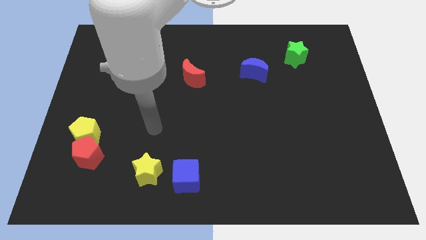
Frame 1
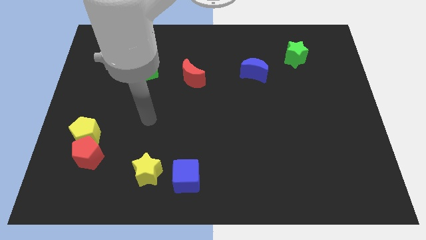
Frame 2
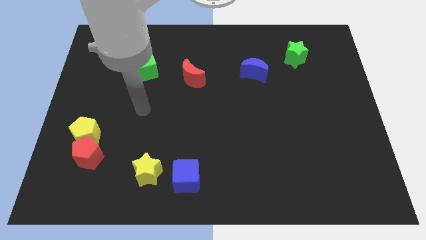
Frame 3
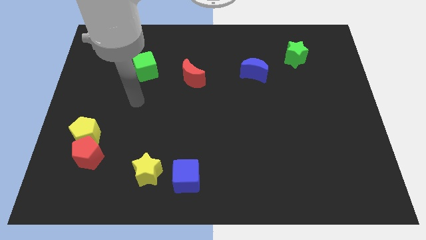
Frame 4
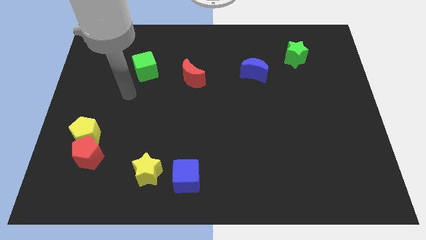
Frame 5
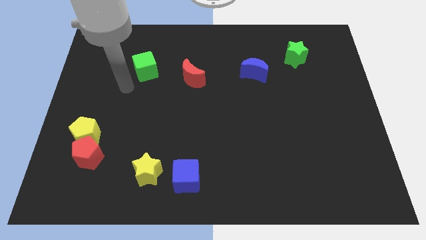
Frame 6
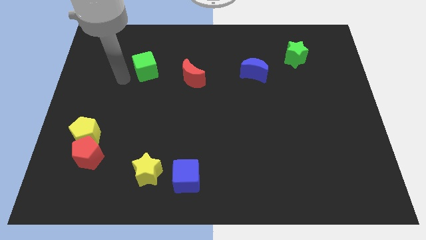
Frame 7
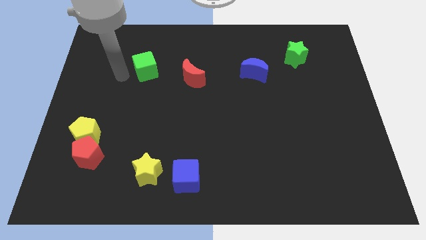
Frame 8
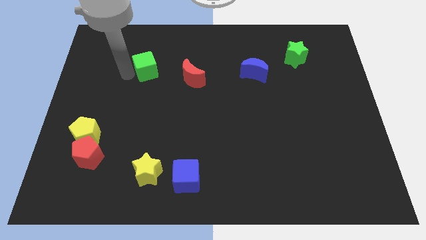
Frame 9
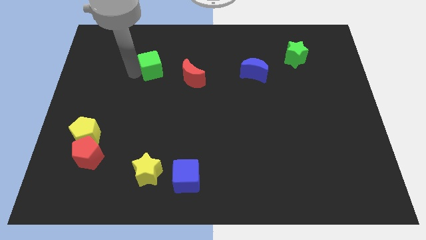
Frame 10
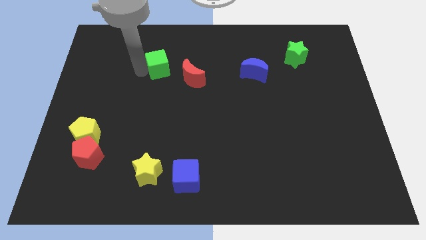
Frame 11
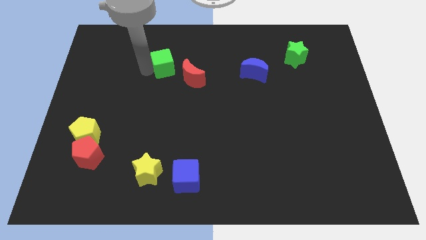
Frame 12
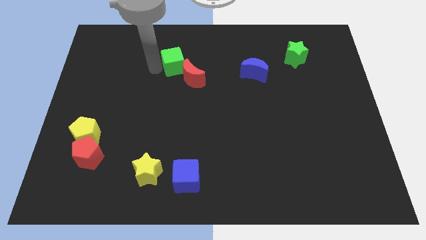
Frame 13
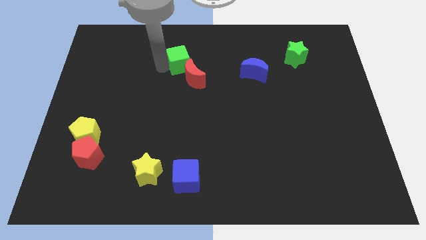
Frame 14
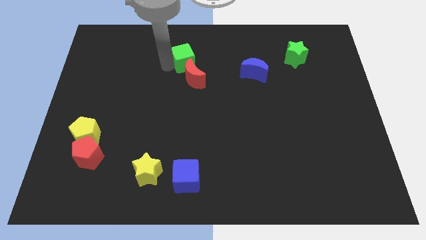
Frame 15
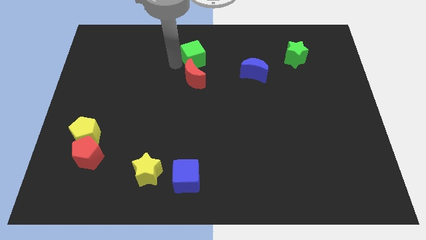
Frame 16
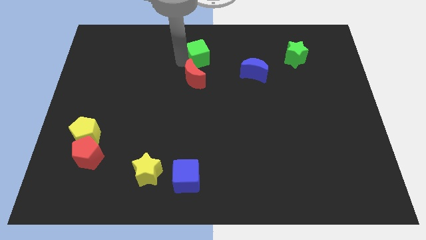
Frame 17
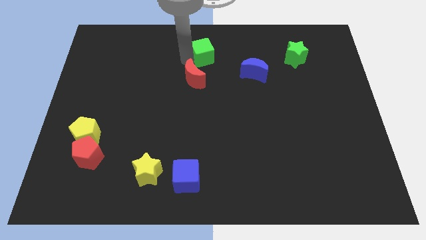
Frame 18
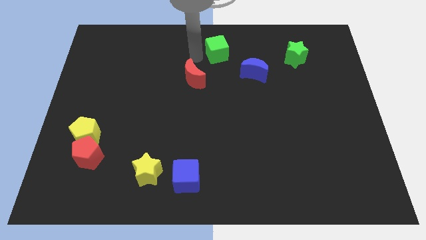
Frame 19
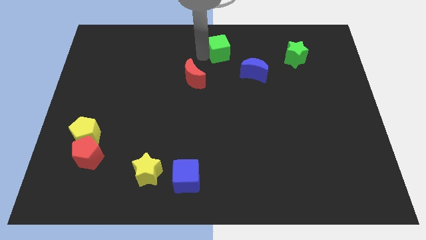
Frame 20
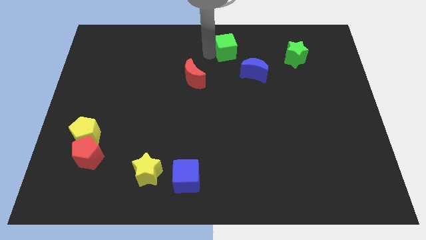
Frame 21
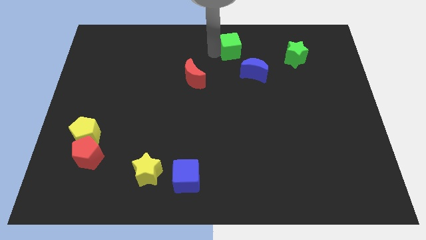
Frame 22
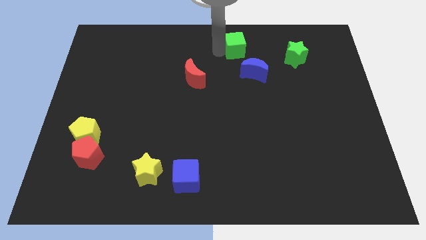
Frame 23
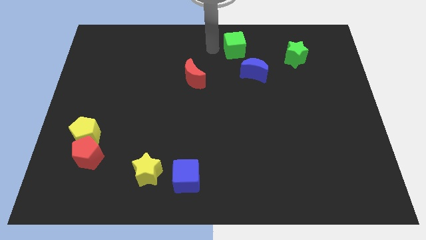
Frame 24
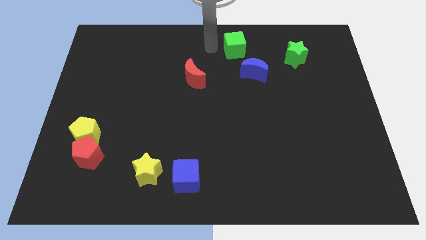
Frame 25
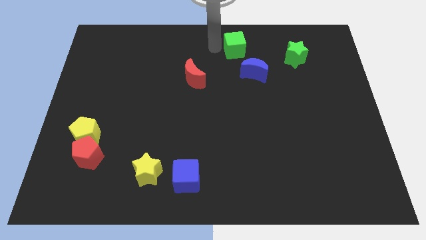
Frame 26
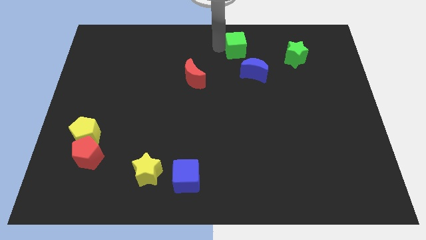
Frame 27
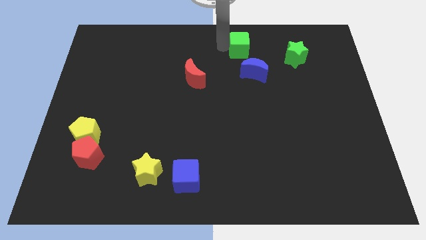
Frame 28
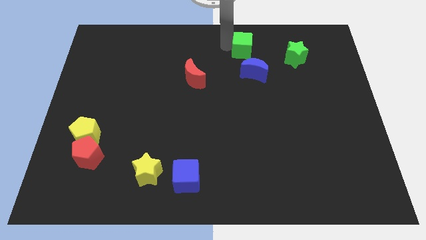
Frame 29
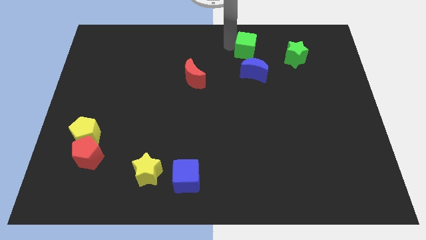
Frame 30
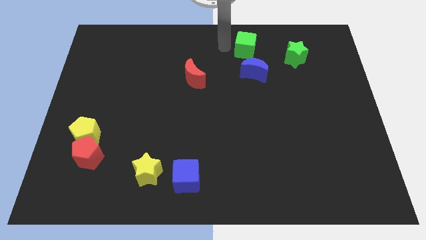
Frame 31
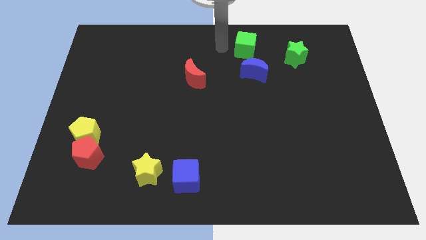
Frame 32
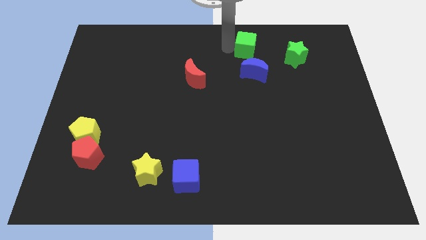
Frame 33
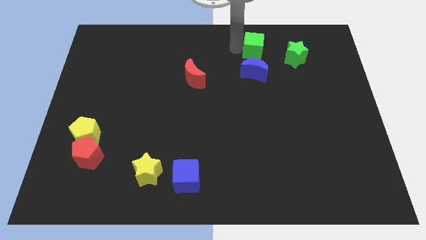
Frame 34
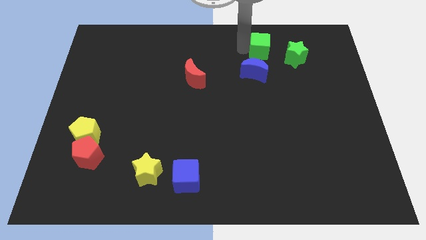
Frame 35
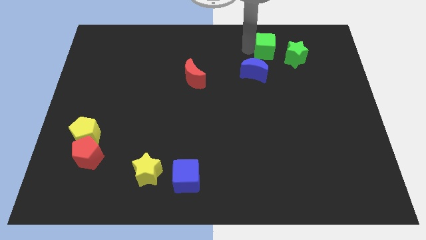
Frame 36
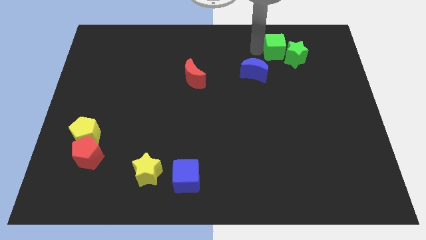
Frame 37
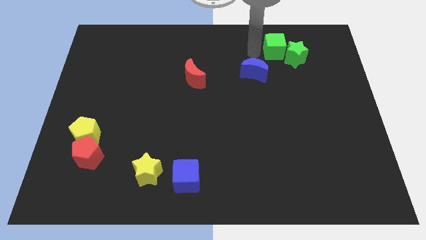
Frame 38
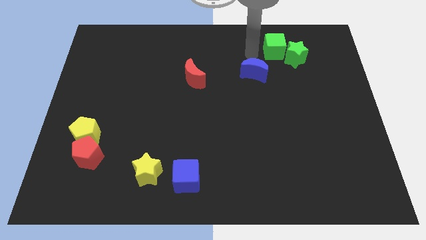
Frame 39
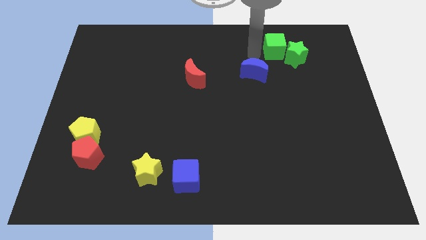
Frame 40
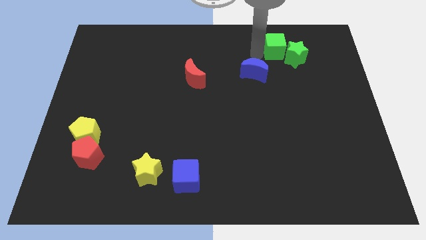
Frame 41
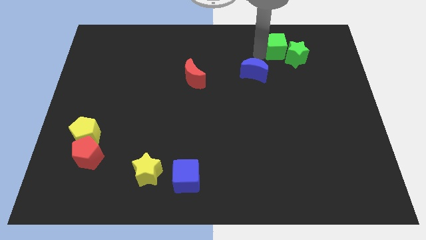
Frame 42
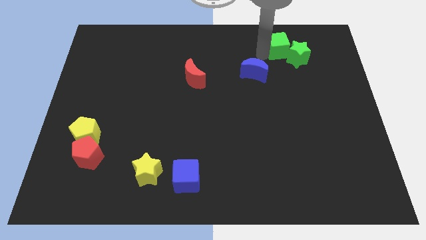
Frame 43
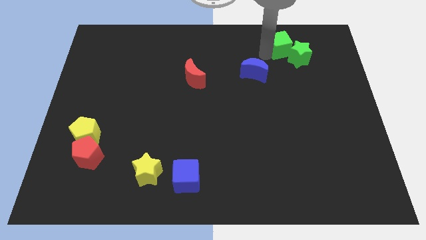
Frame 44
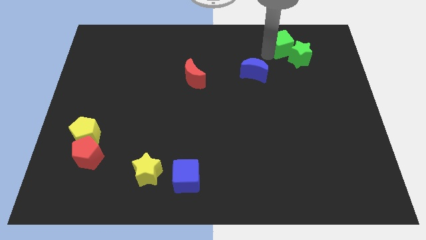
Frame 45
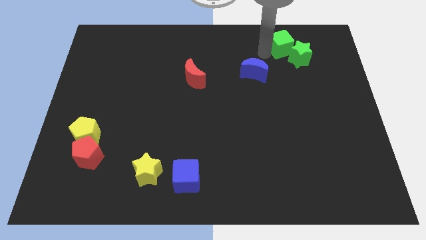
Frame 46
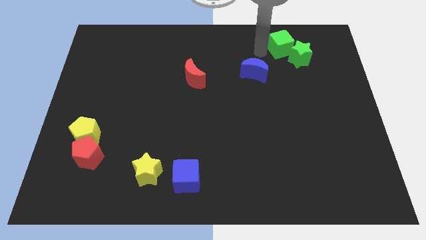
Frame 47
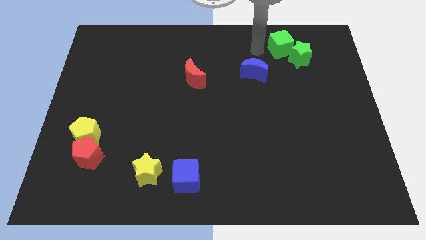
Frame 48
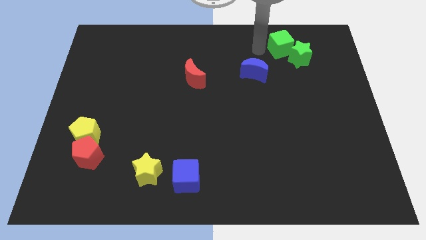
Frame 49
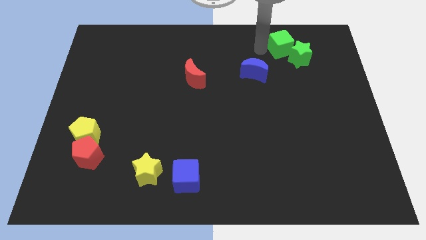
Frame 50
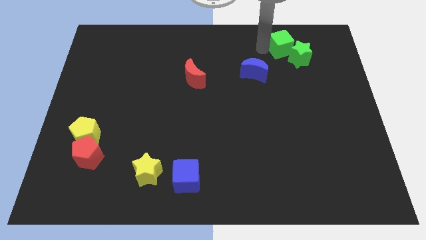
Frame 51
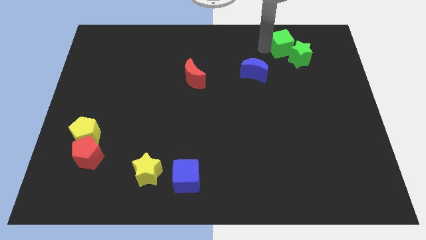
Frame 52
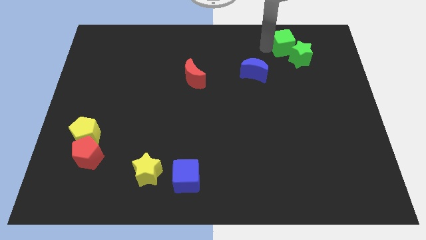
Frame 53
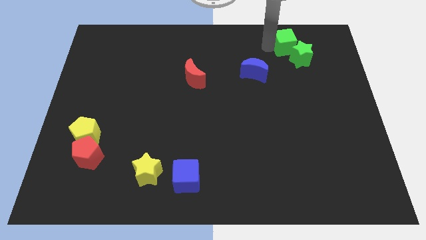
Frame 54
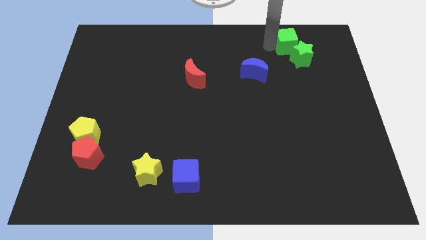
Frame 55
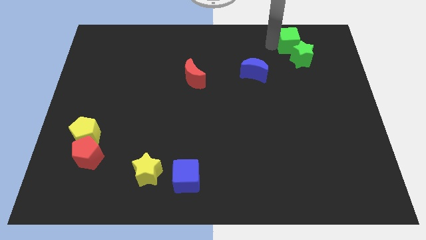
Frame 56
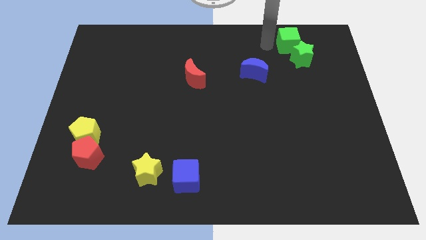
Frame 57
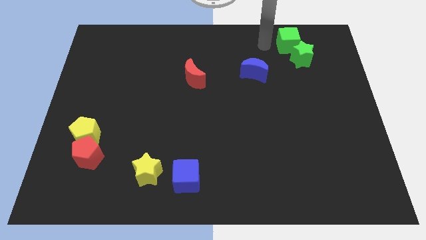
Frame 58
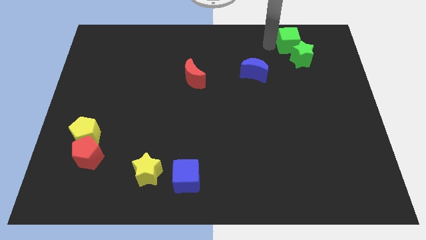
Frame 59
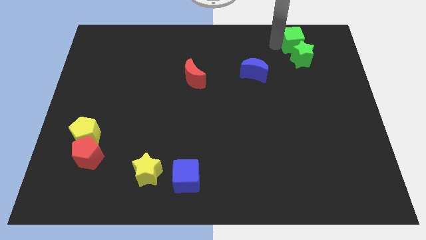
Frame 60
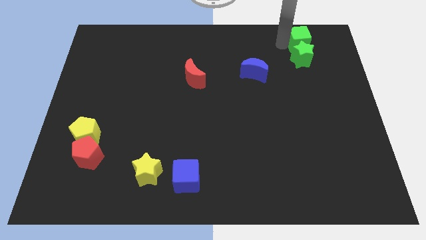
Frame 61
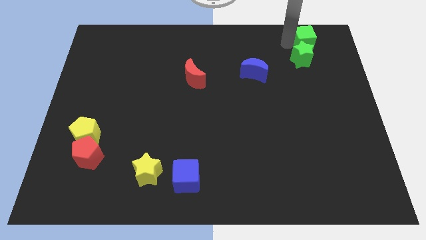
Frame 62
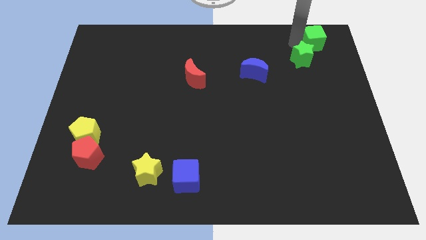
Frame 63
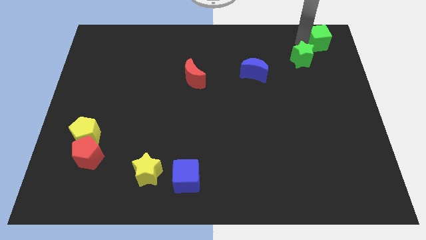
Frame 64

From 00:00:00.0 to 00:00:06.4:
move the green cube to the top right of the board

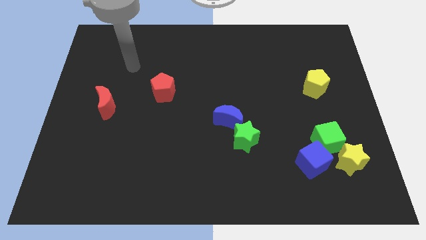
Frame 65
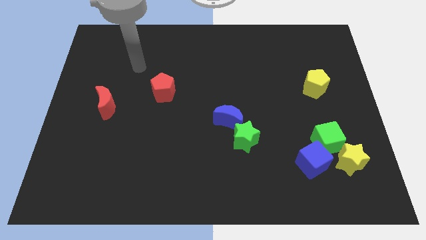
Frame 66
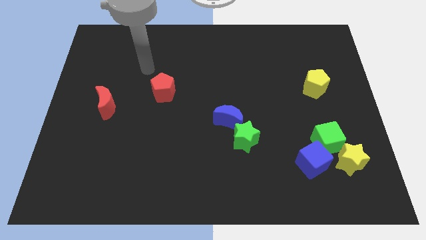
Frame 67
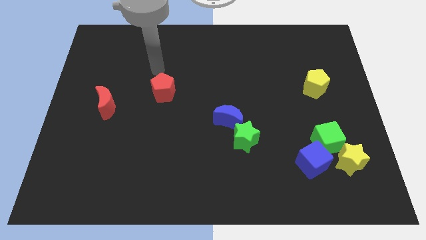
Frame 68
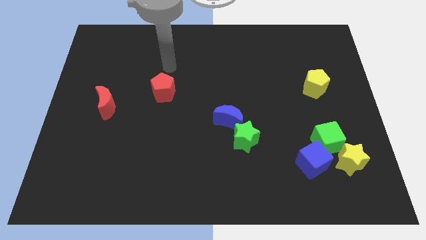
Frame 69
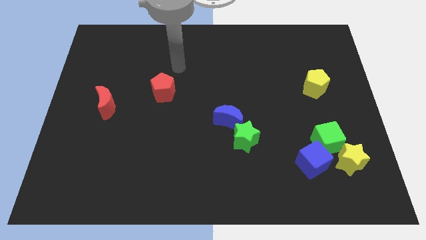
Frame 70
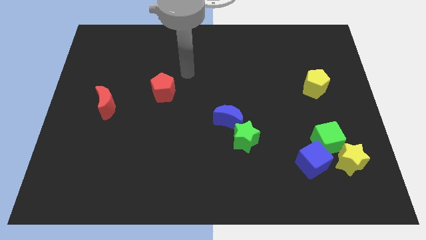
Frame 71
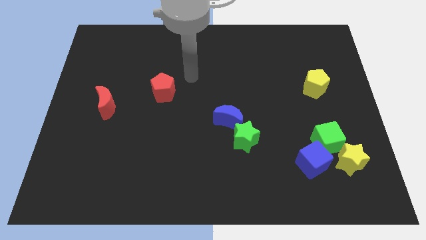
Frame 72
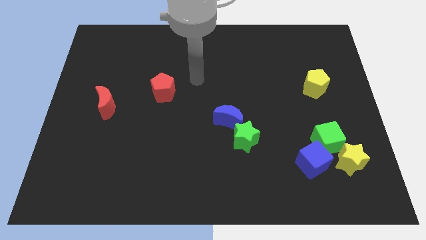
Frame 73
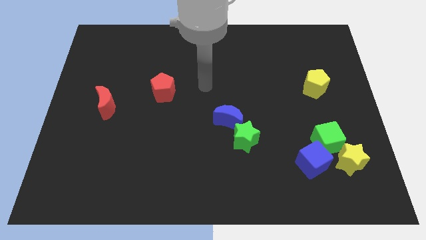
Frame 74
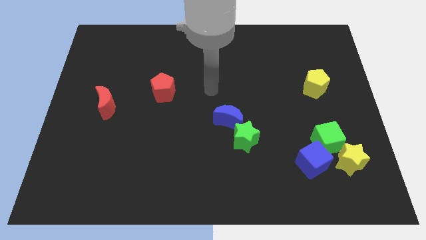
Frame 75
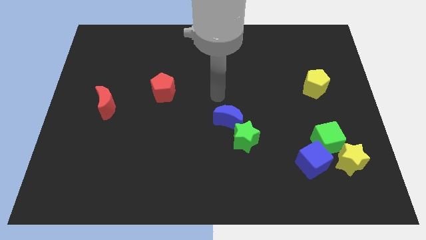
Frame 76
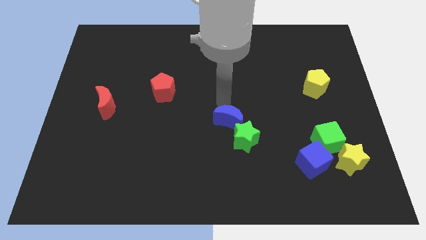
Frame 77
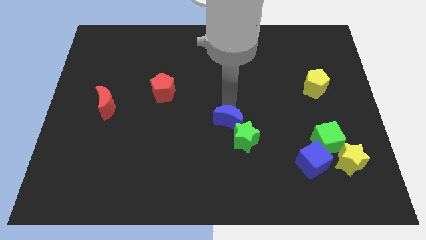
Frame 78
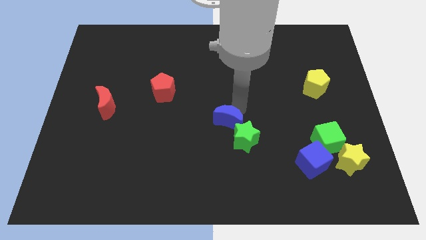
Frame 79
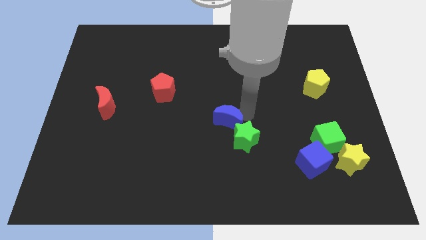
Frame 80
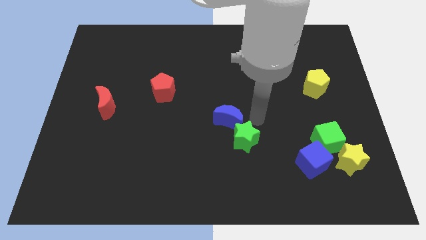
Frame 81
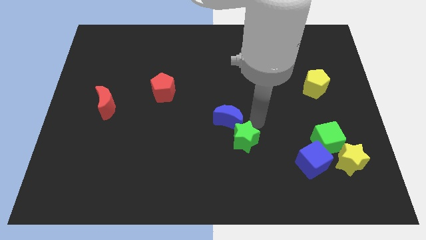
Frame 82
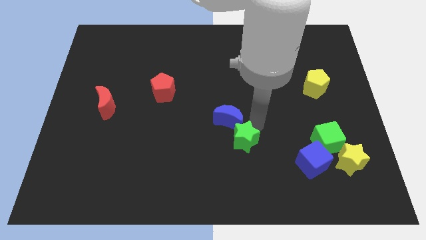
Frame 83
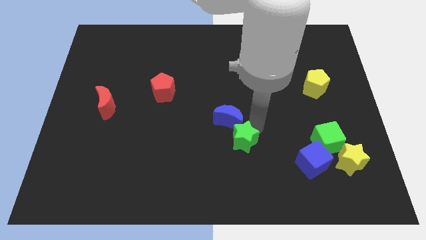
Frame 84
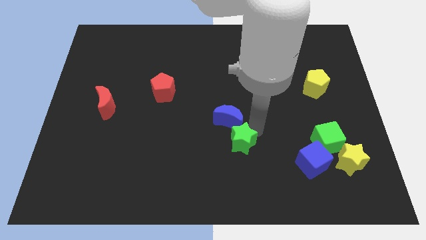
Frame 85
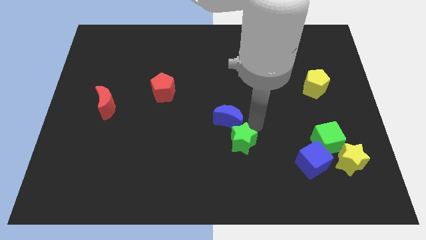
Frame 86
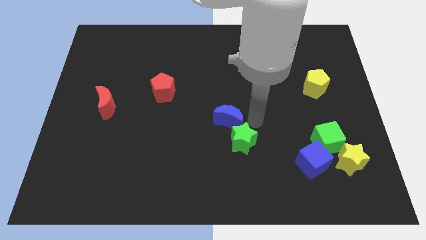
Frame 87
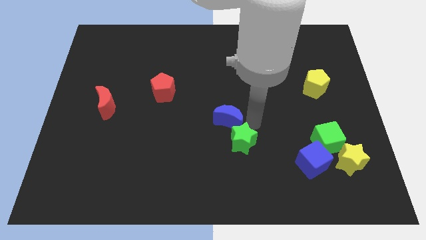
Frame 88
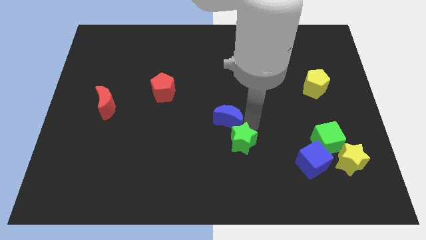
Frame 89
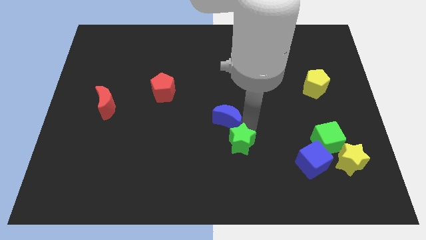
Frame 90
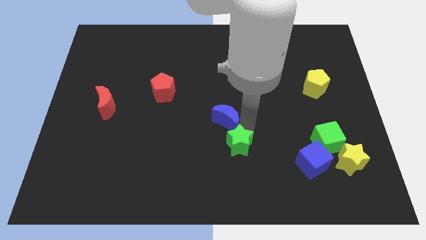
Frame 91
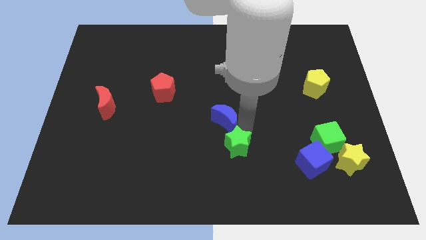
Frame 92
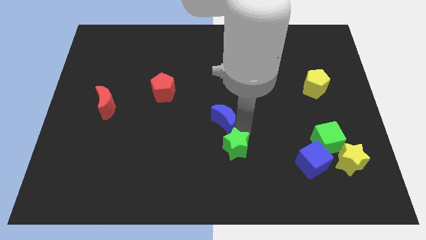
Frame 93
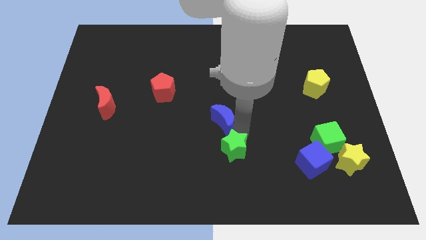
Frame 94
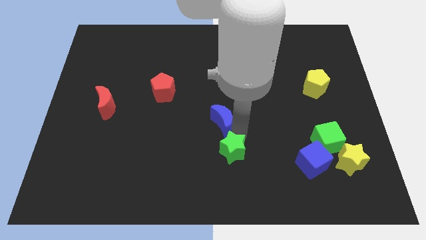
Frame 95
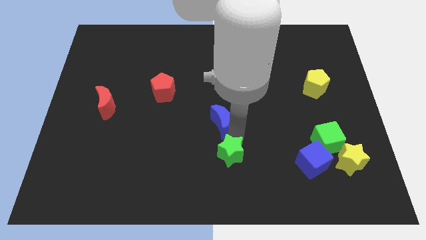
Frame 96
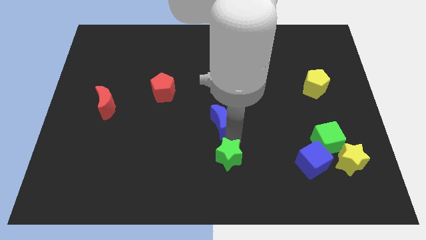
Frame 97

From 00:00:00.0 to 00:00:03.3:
push the green star to the bottom
